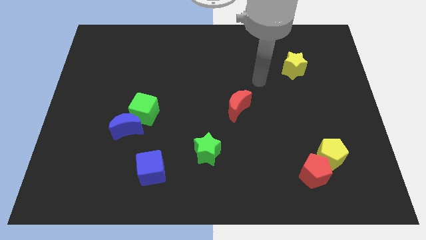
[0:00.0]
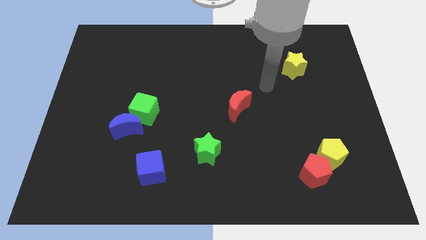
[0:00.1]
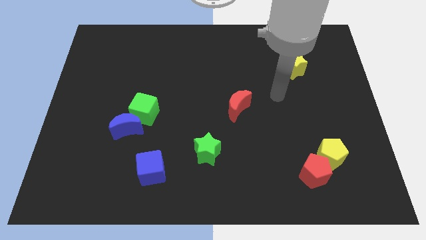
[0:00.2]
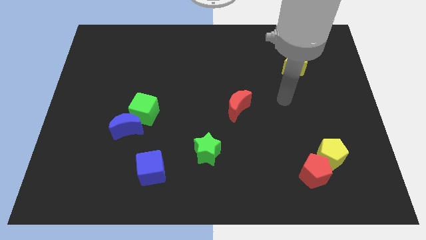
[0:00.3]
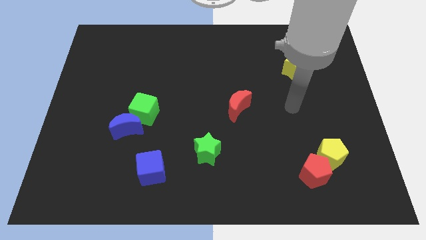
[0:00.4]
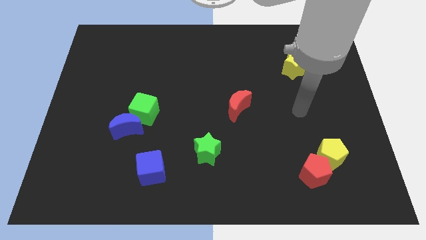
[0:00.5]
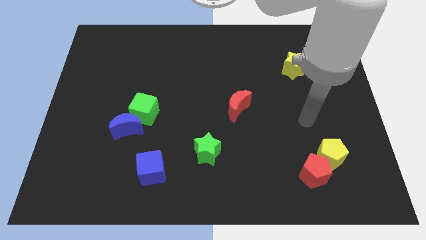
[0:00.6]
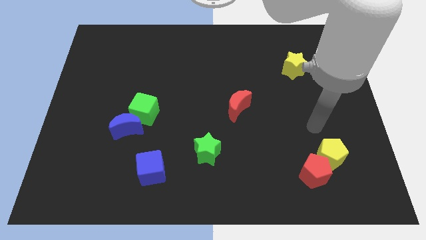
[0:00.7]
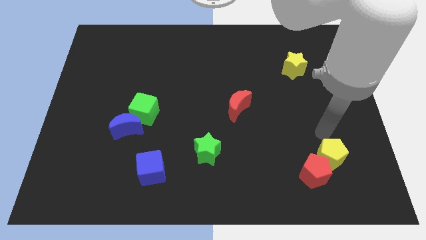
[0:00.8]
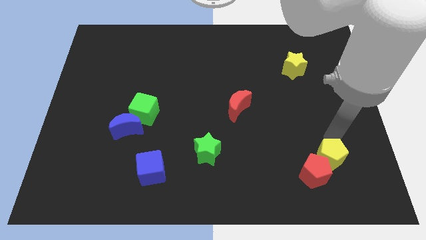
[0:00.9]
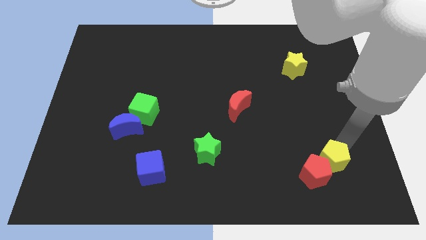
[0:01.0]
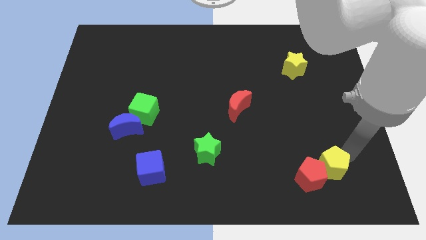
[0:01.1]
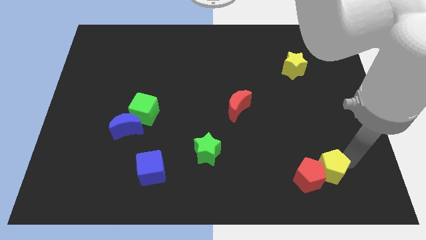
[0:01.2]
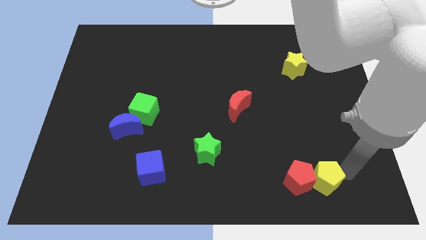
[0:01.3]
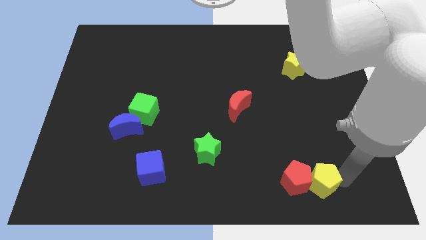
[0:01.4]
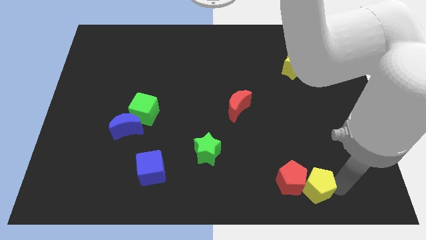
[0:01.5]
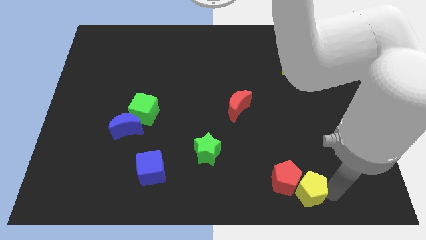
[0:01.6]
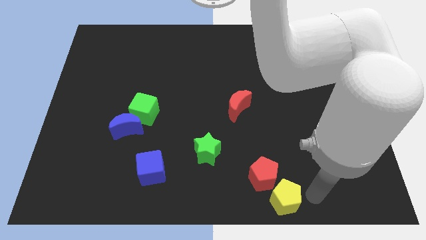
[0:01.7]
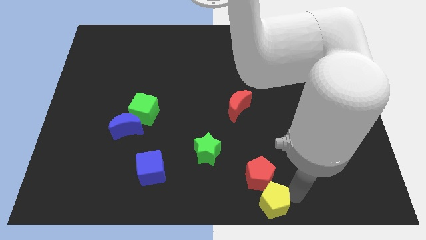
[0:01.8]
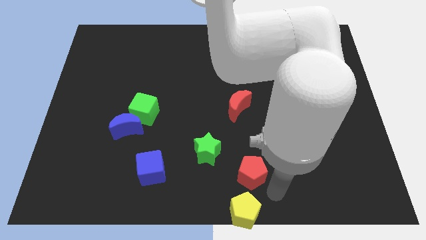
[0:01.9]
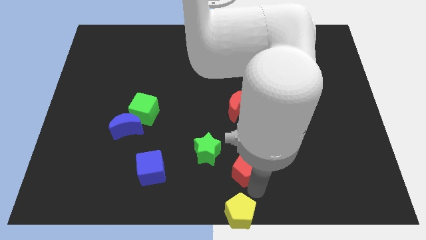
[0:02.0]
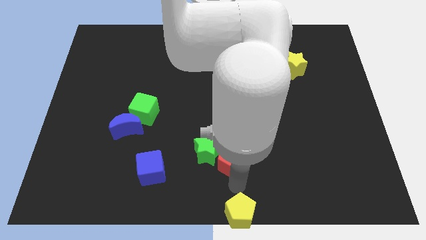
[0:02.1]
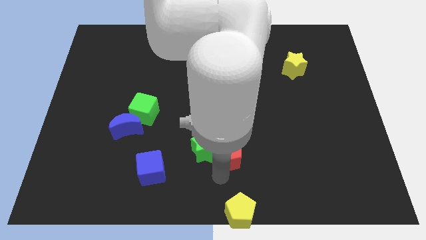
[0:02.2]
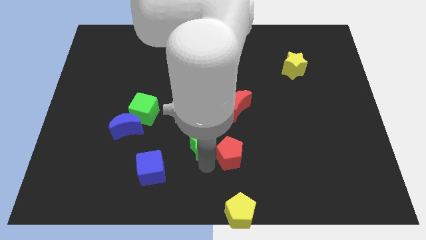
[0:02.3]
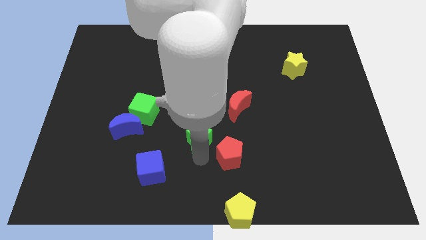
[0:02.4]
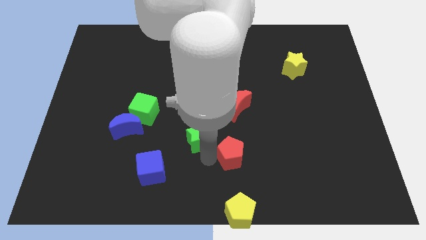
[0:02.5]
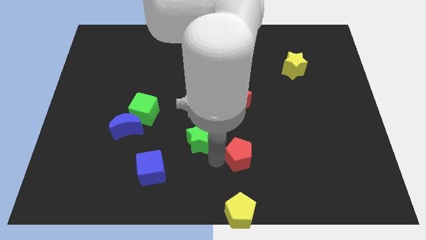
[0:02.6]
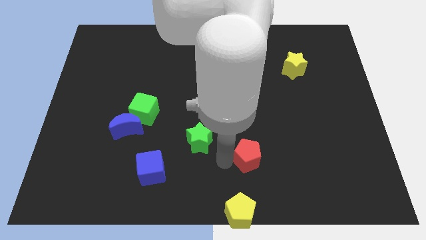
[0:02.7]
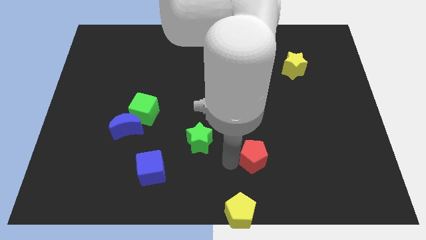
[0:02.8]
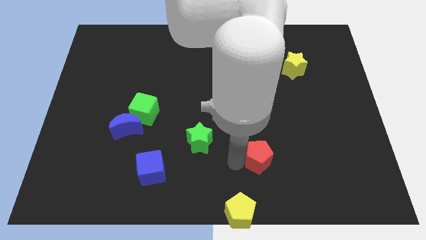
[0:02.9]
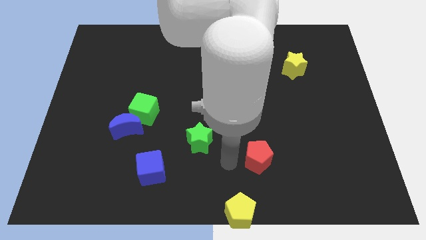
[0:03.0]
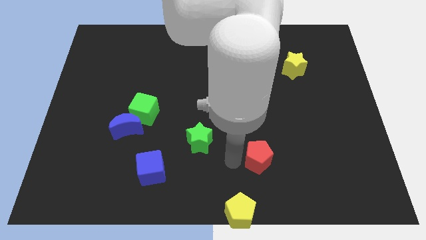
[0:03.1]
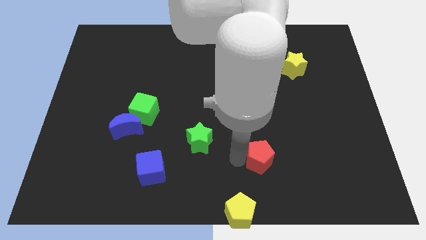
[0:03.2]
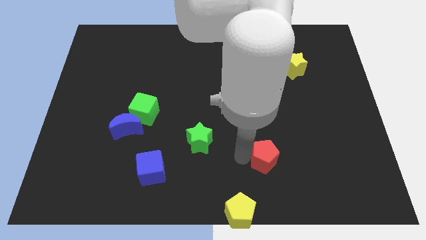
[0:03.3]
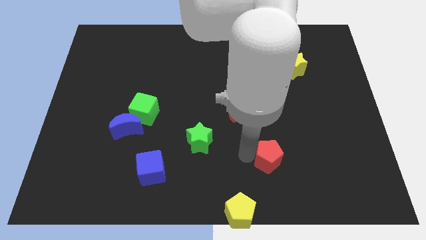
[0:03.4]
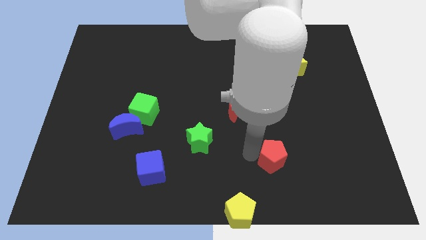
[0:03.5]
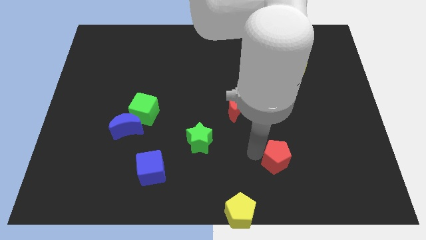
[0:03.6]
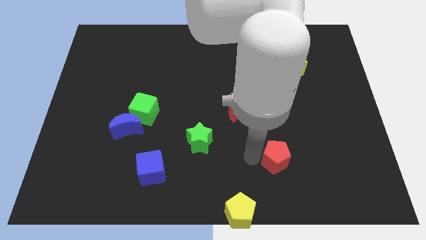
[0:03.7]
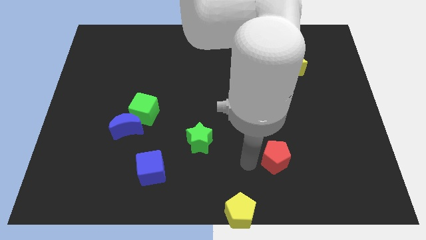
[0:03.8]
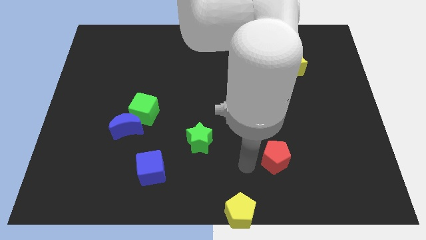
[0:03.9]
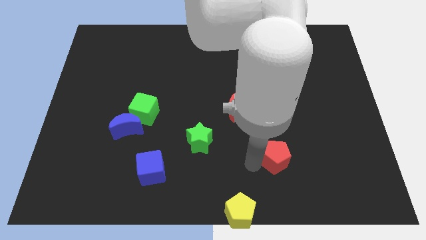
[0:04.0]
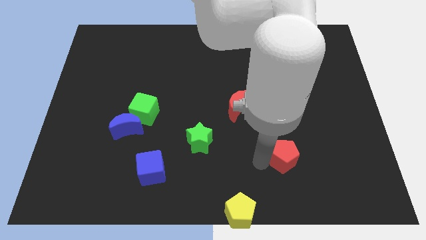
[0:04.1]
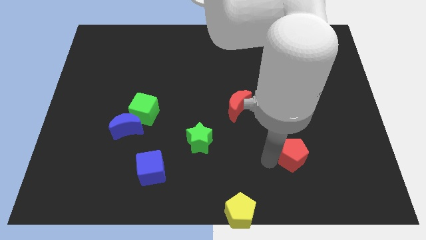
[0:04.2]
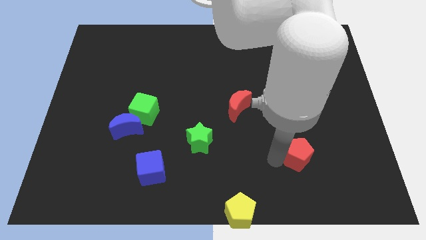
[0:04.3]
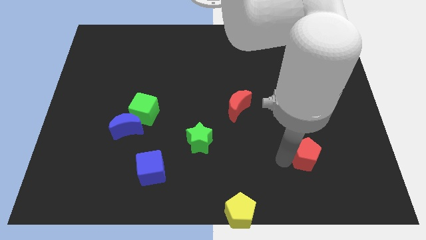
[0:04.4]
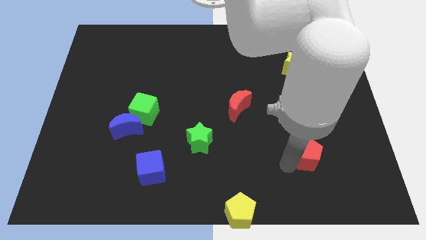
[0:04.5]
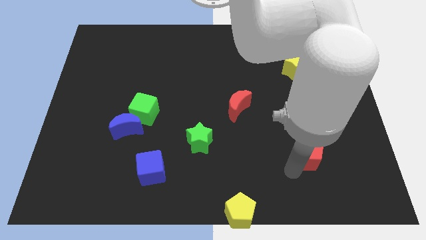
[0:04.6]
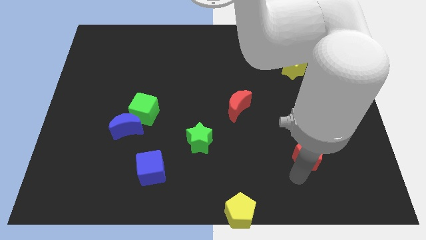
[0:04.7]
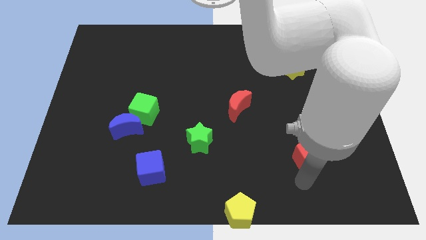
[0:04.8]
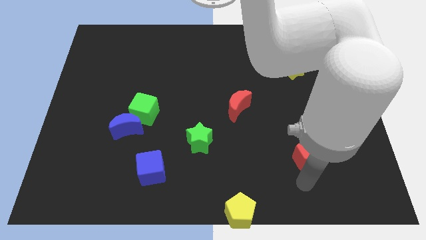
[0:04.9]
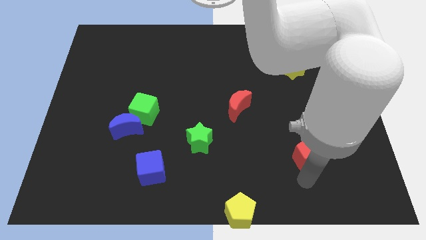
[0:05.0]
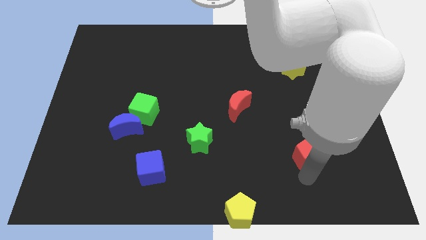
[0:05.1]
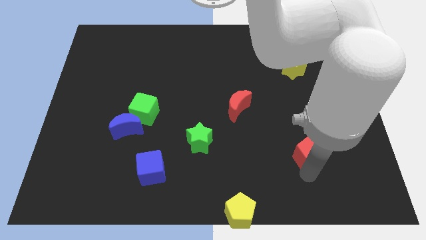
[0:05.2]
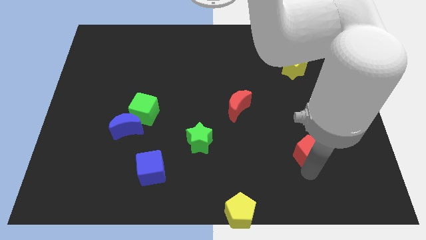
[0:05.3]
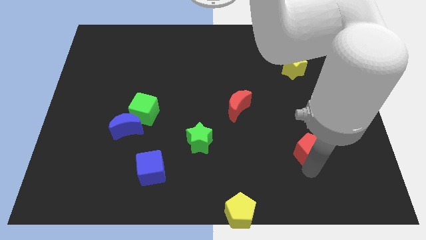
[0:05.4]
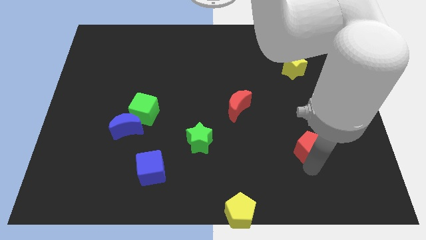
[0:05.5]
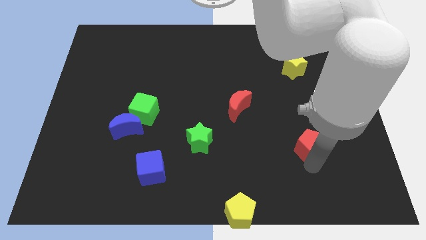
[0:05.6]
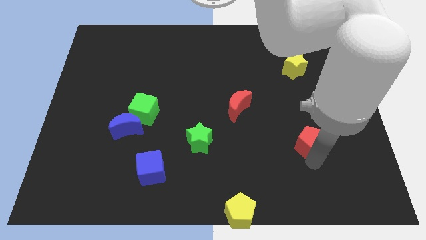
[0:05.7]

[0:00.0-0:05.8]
move the red pentagon a little up

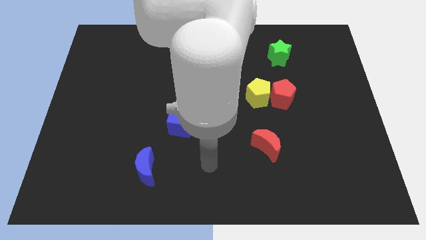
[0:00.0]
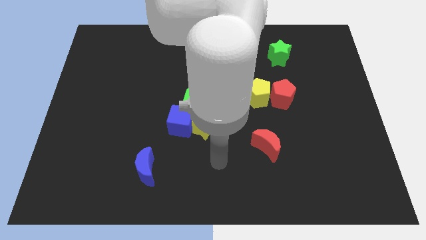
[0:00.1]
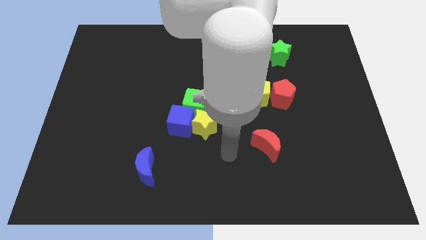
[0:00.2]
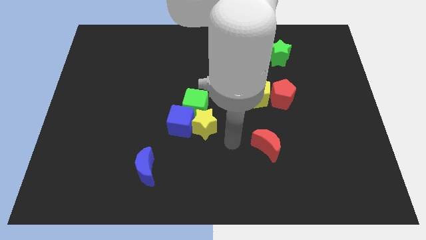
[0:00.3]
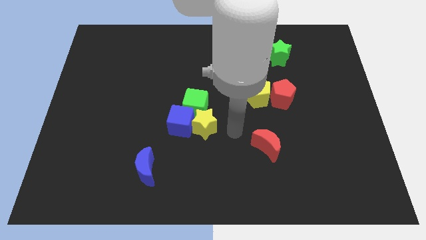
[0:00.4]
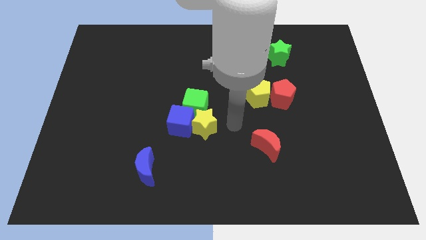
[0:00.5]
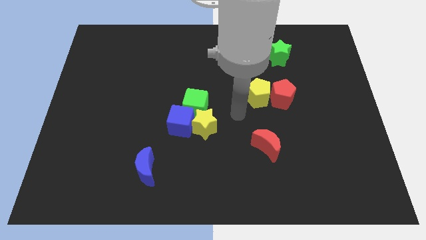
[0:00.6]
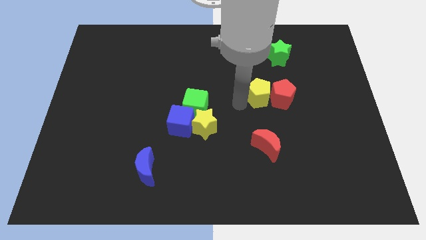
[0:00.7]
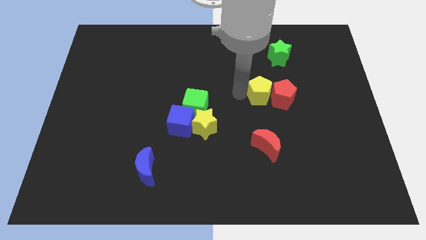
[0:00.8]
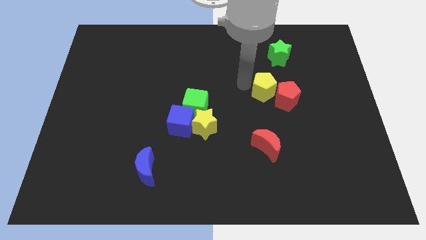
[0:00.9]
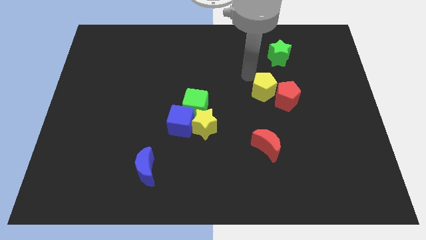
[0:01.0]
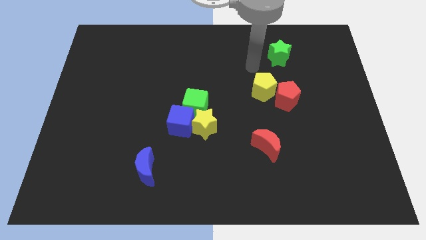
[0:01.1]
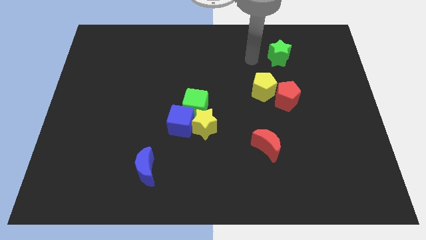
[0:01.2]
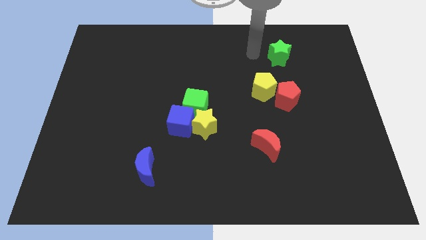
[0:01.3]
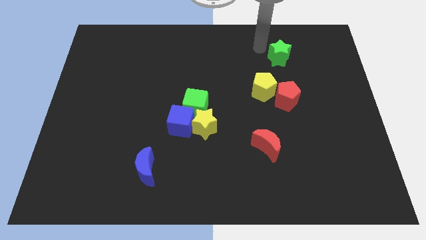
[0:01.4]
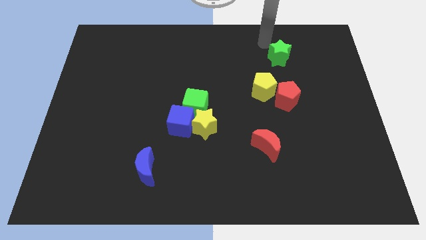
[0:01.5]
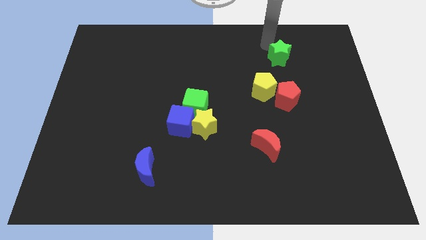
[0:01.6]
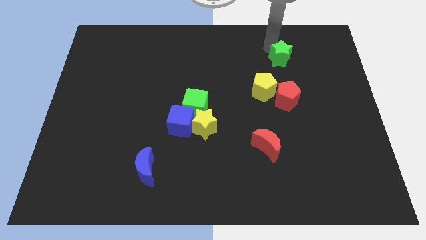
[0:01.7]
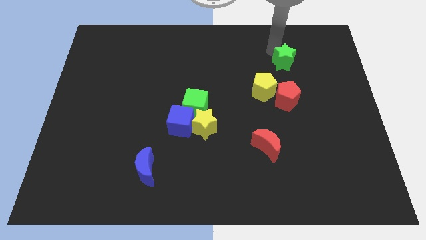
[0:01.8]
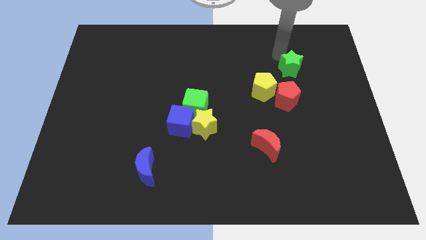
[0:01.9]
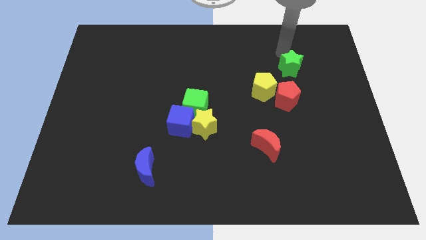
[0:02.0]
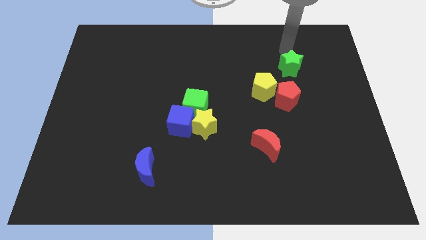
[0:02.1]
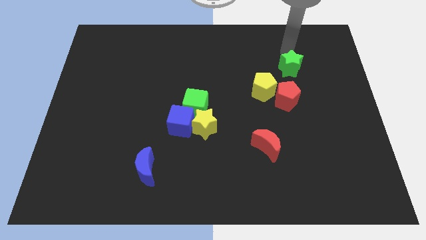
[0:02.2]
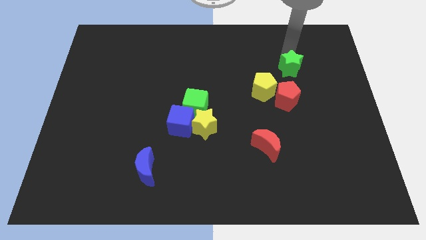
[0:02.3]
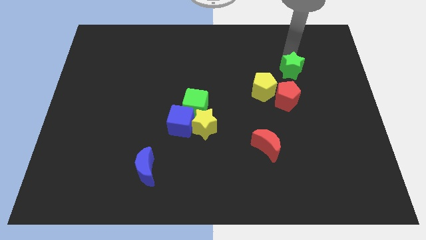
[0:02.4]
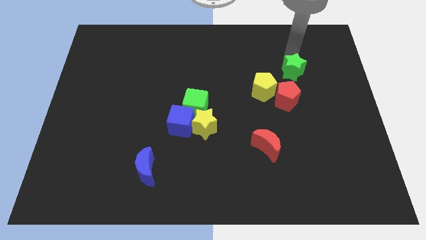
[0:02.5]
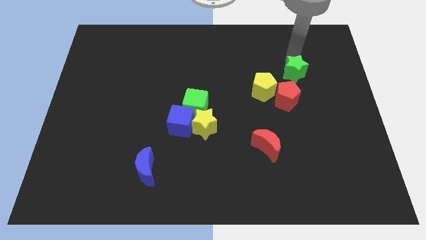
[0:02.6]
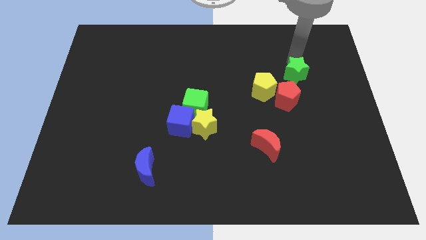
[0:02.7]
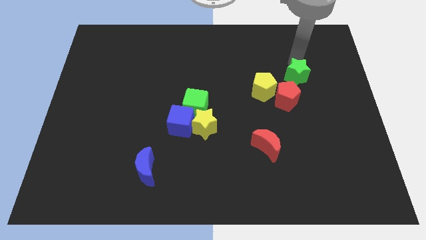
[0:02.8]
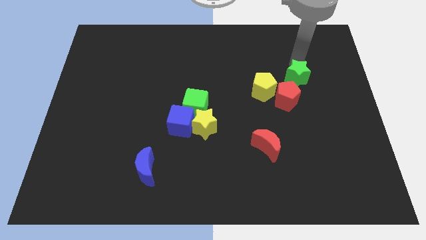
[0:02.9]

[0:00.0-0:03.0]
slightly move the green star down
